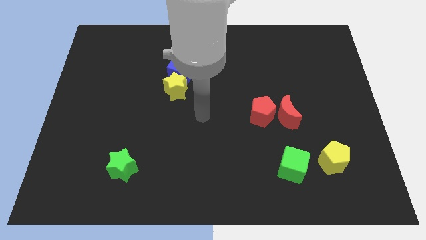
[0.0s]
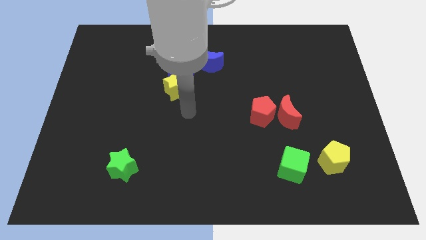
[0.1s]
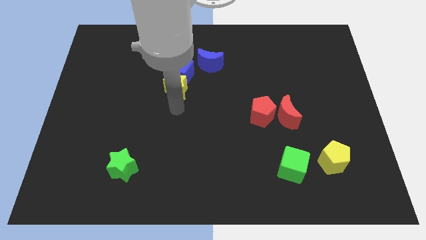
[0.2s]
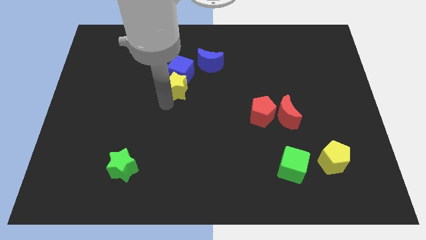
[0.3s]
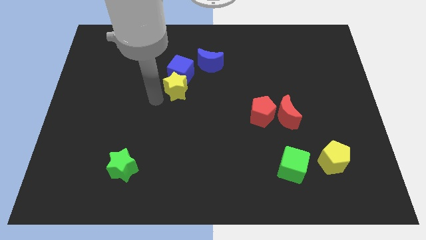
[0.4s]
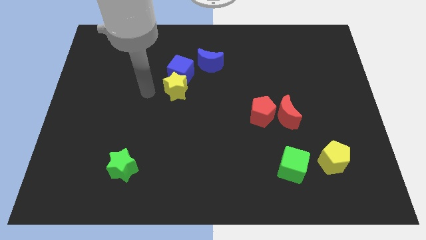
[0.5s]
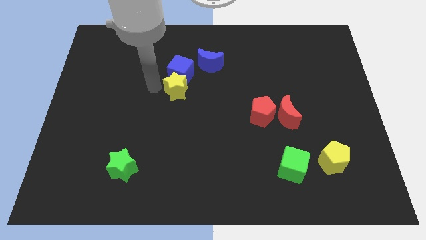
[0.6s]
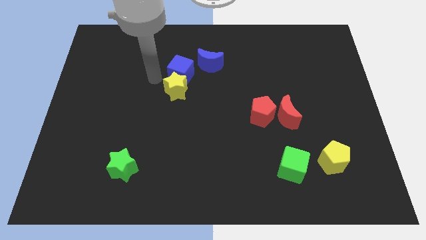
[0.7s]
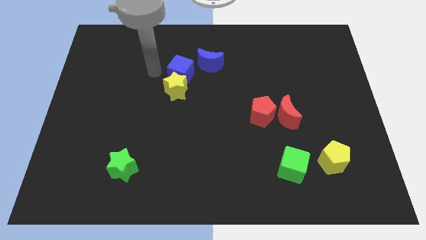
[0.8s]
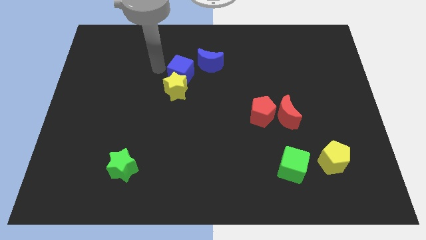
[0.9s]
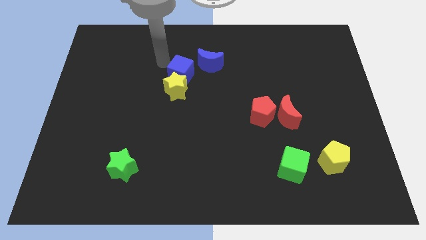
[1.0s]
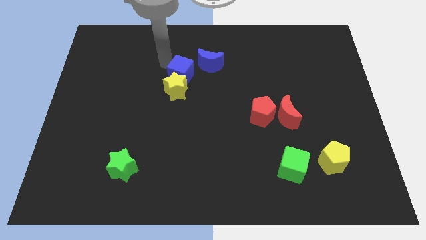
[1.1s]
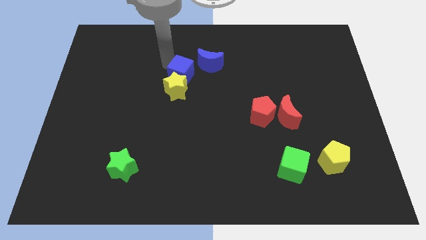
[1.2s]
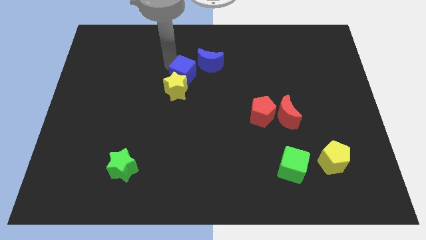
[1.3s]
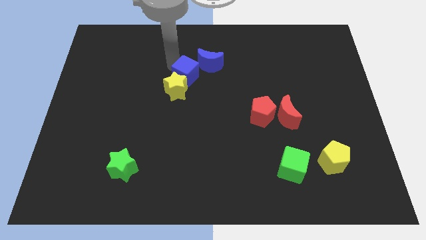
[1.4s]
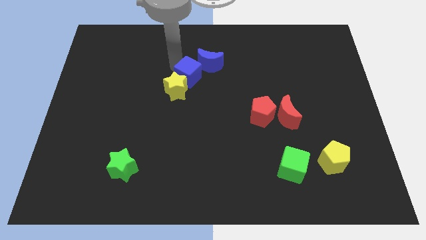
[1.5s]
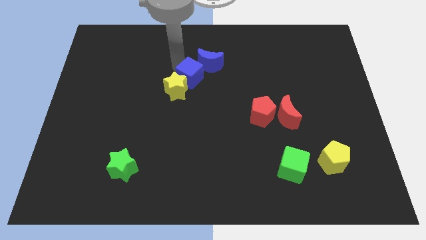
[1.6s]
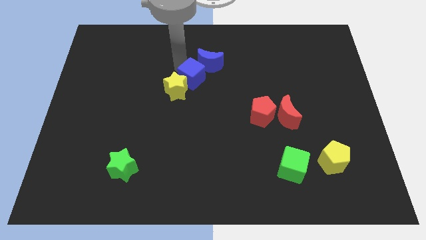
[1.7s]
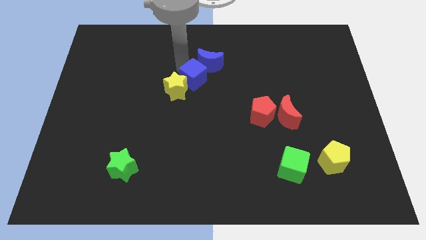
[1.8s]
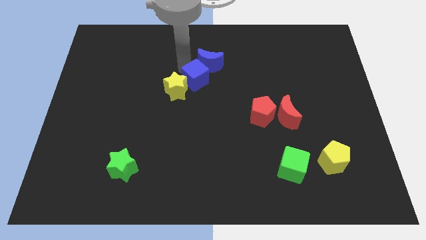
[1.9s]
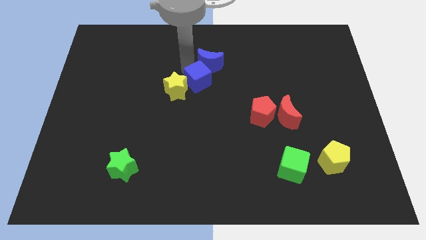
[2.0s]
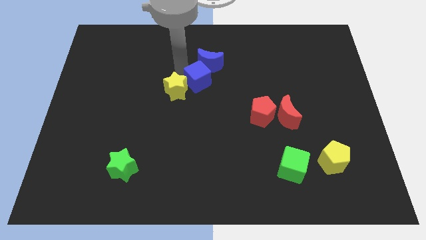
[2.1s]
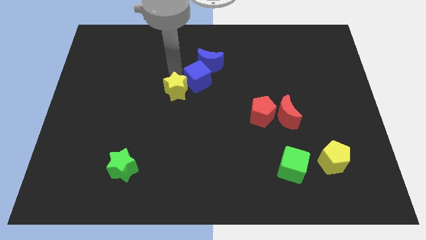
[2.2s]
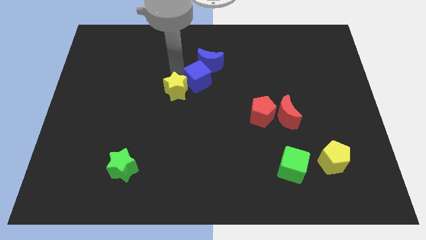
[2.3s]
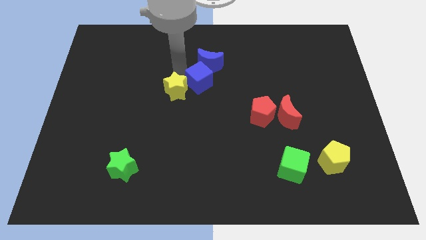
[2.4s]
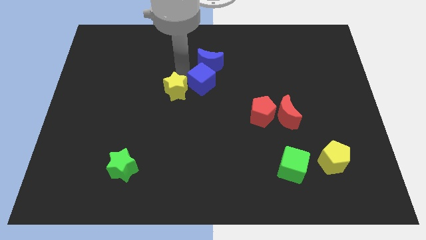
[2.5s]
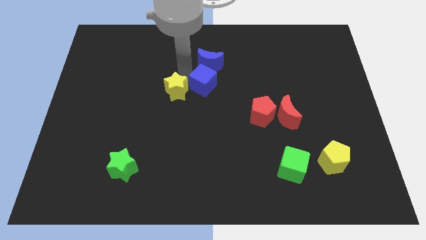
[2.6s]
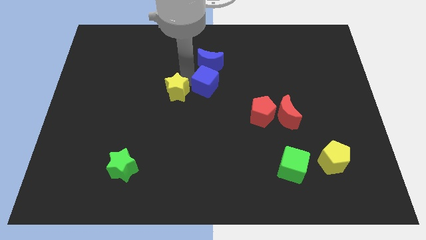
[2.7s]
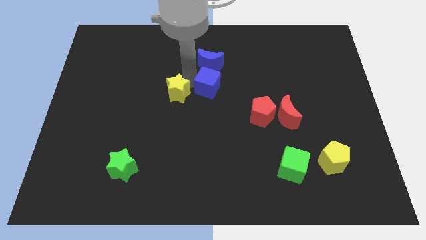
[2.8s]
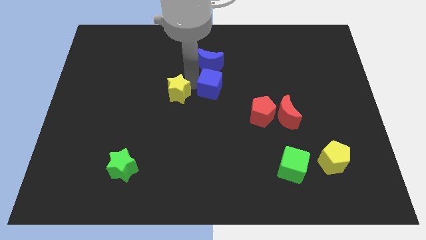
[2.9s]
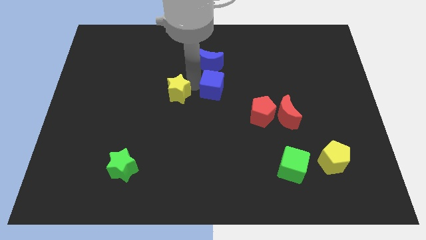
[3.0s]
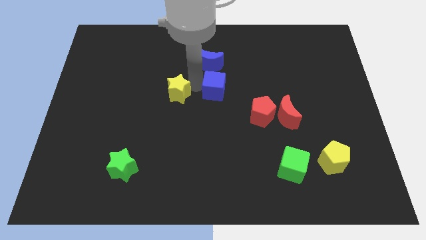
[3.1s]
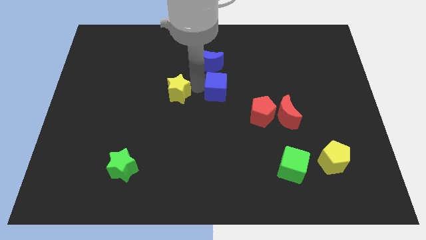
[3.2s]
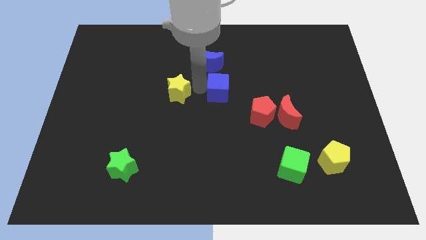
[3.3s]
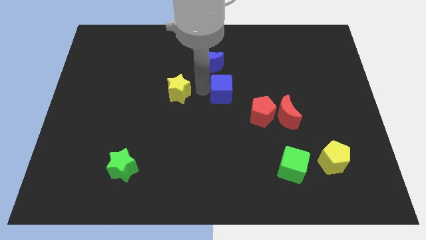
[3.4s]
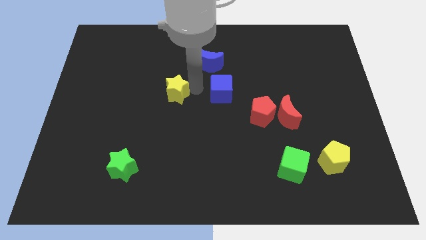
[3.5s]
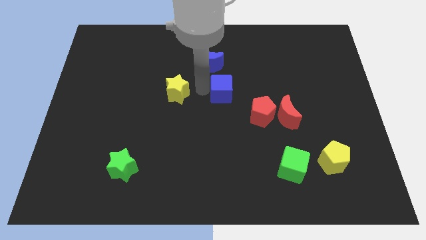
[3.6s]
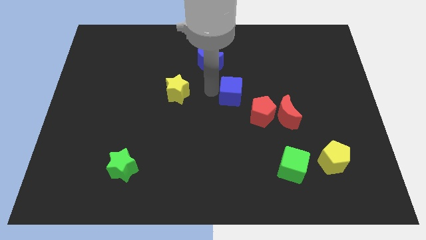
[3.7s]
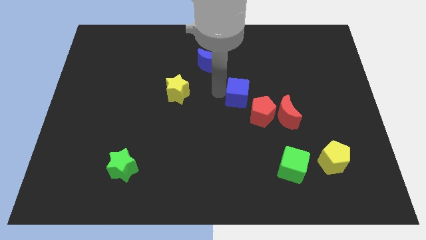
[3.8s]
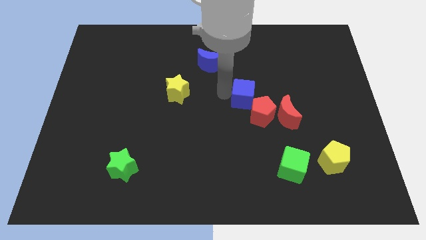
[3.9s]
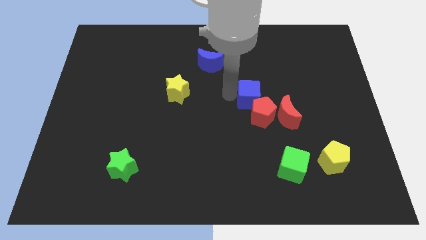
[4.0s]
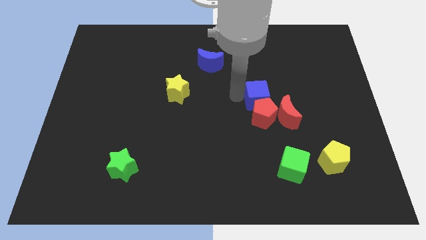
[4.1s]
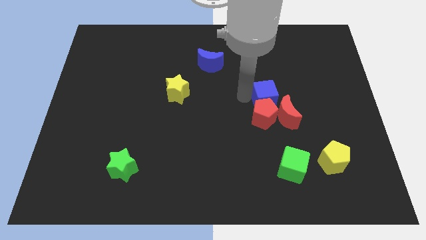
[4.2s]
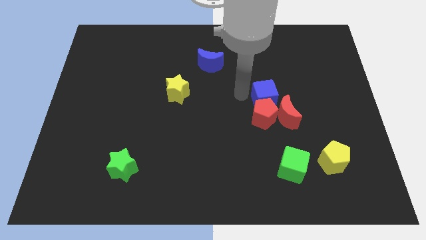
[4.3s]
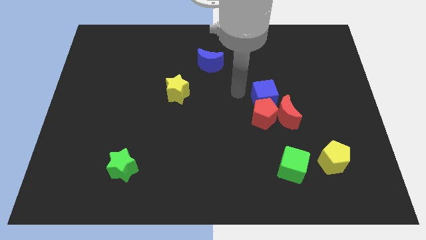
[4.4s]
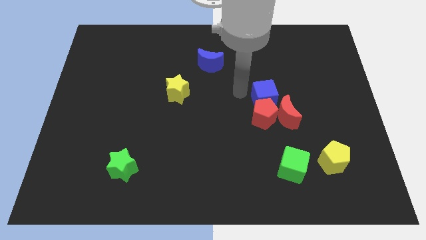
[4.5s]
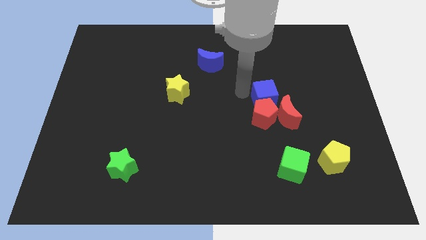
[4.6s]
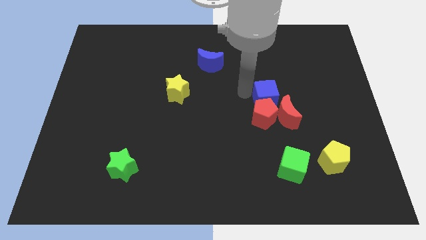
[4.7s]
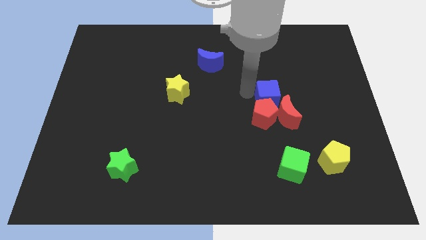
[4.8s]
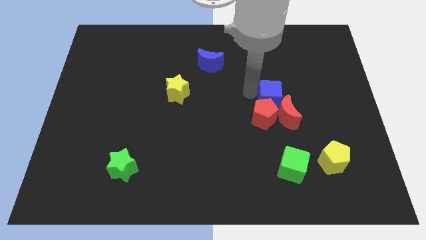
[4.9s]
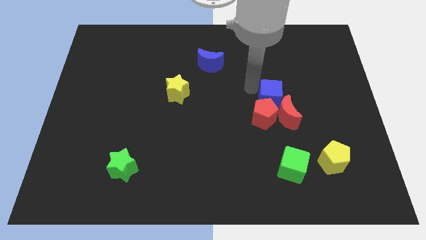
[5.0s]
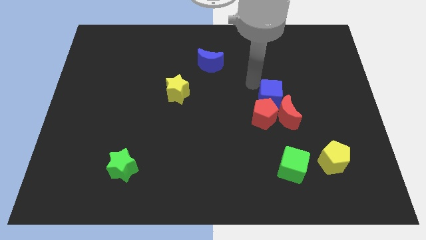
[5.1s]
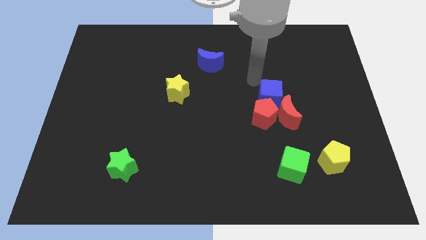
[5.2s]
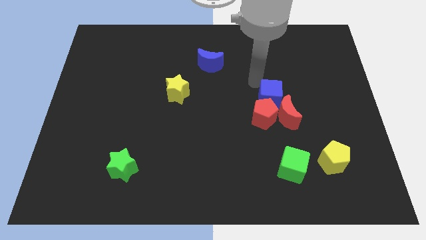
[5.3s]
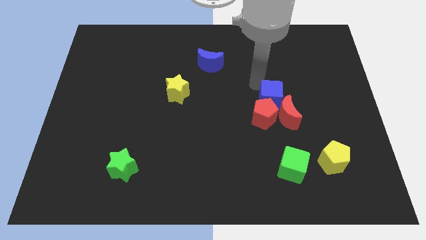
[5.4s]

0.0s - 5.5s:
slide the blue cube next to the red moon

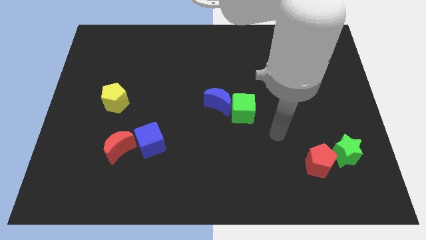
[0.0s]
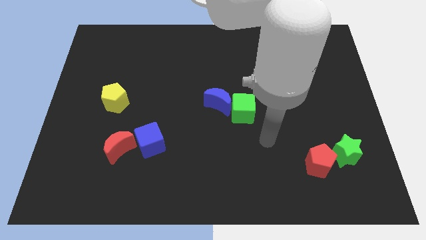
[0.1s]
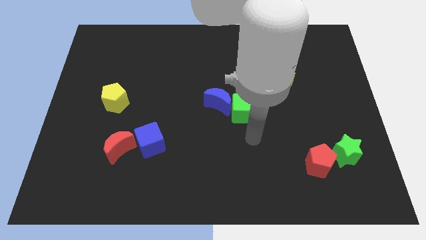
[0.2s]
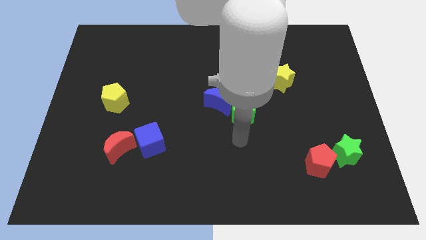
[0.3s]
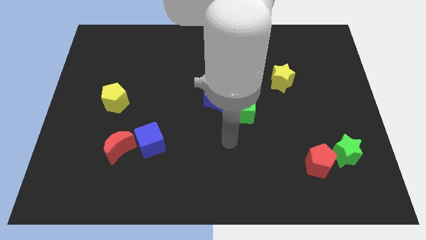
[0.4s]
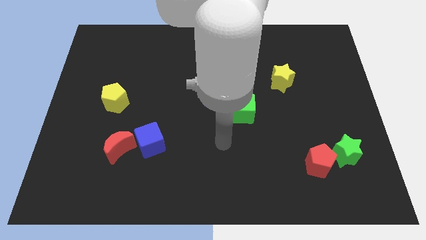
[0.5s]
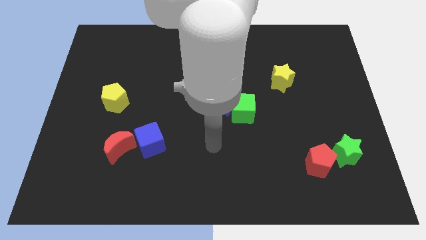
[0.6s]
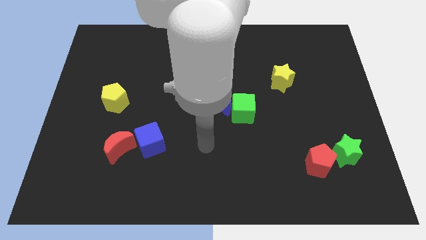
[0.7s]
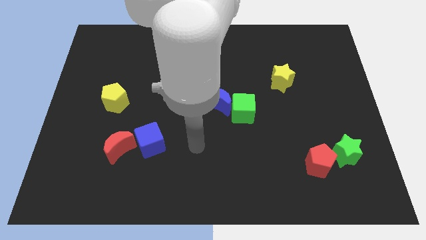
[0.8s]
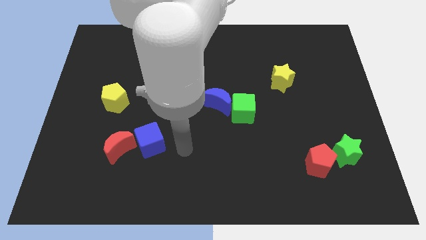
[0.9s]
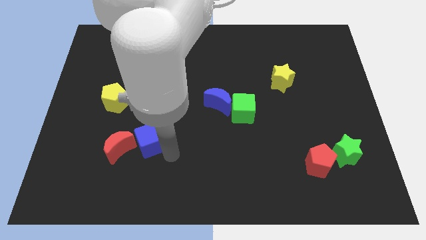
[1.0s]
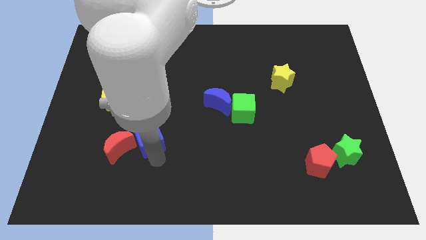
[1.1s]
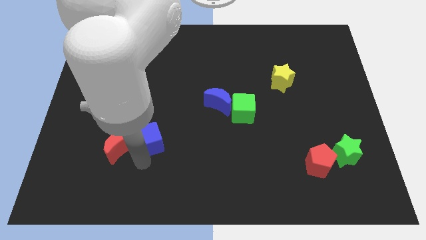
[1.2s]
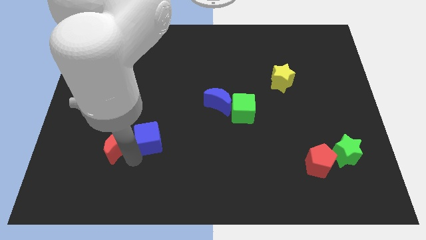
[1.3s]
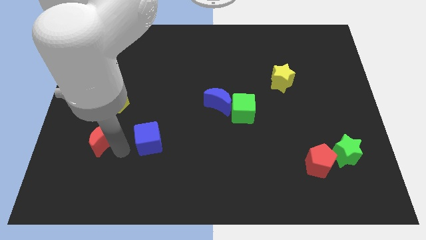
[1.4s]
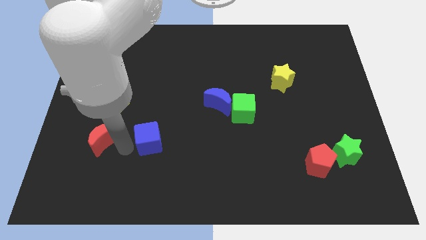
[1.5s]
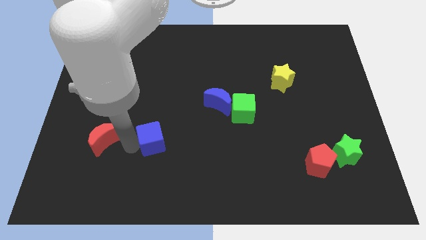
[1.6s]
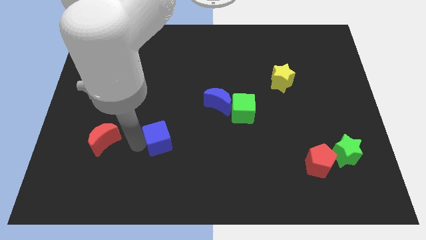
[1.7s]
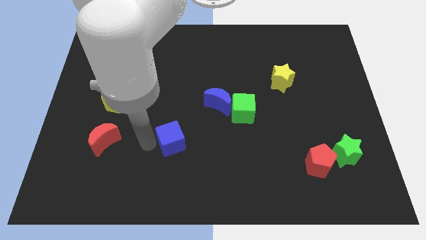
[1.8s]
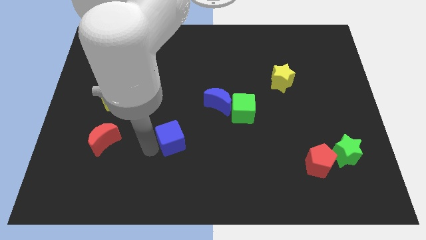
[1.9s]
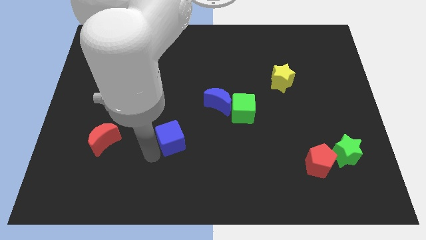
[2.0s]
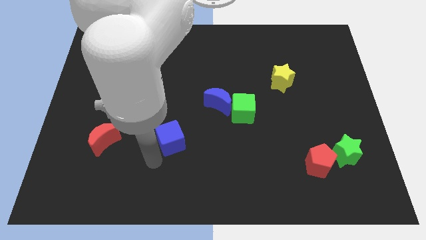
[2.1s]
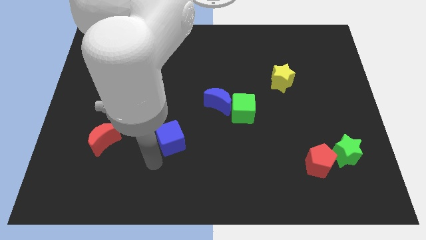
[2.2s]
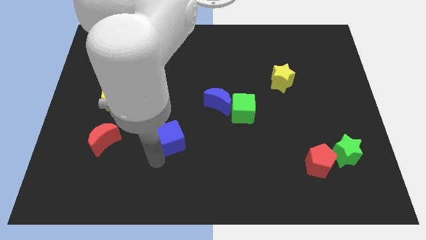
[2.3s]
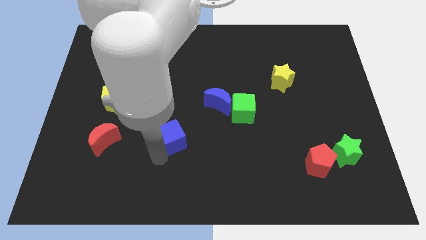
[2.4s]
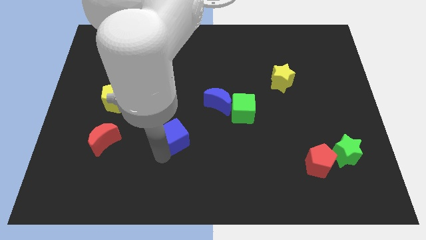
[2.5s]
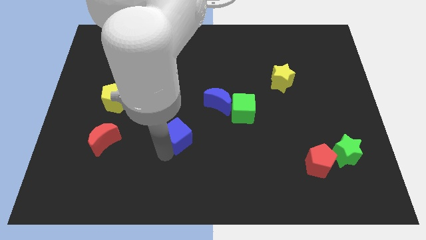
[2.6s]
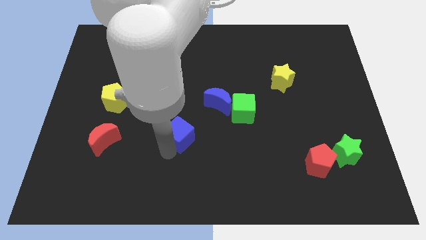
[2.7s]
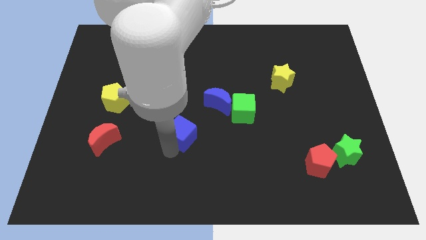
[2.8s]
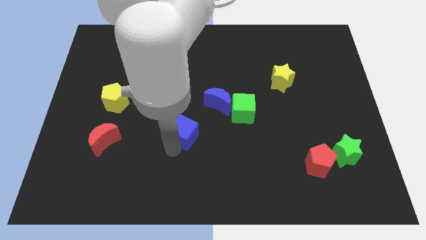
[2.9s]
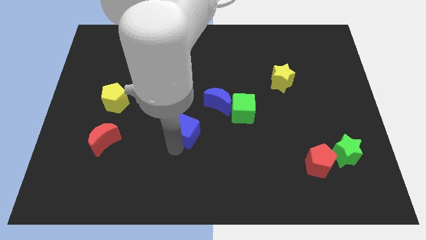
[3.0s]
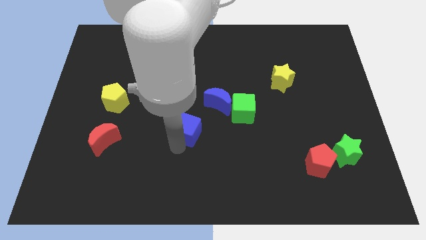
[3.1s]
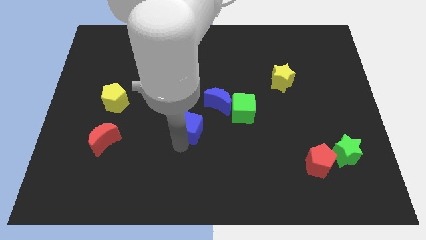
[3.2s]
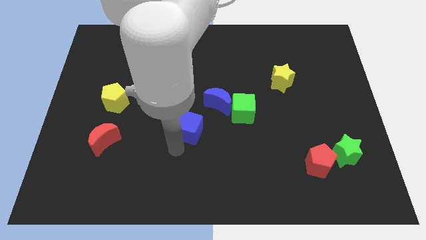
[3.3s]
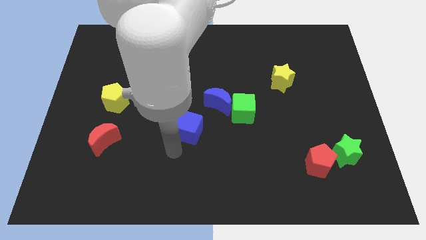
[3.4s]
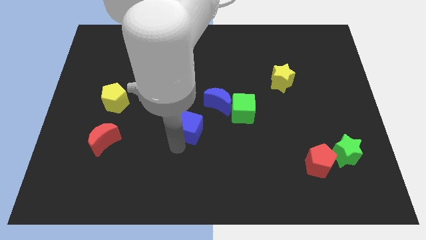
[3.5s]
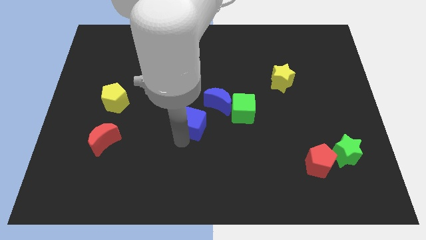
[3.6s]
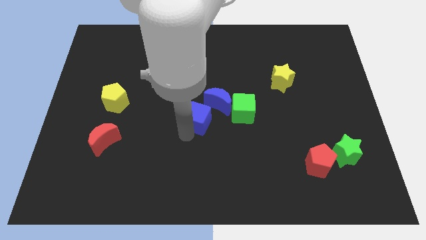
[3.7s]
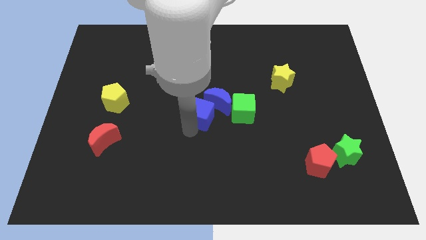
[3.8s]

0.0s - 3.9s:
put the blue cube close to the blue moon
